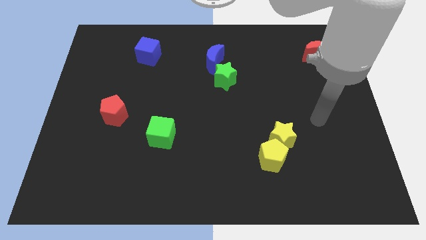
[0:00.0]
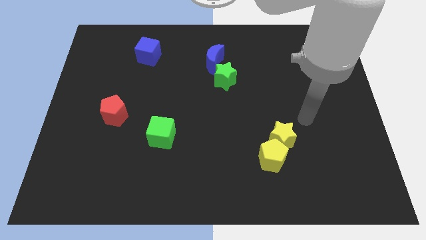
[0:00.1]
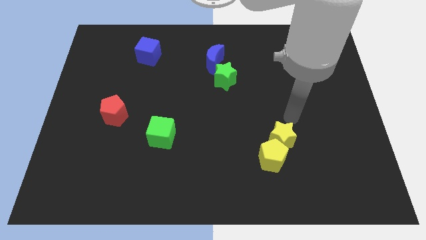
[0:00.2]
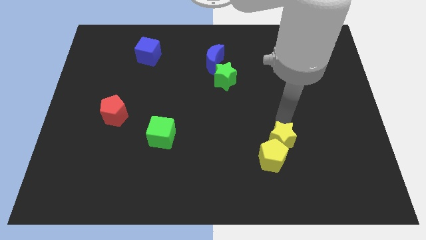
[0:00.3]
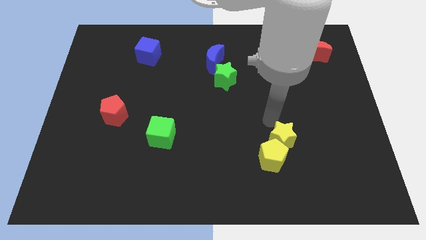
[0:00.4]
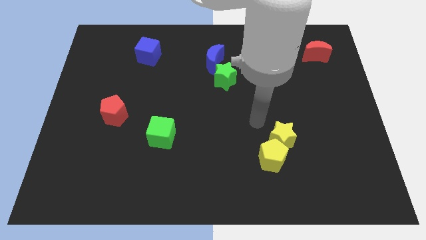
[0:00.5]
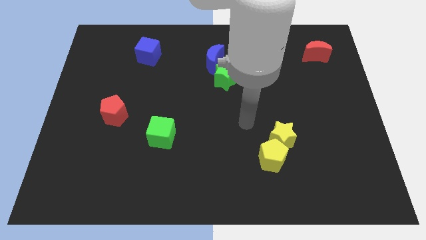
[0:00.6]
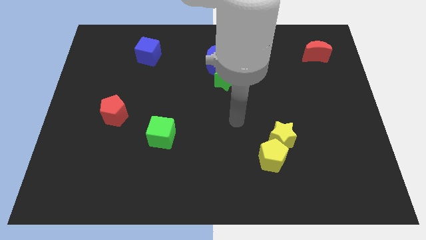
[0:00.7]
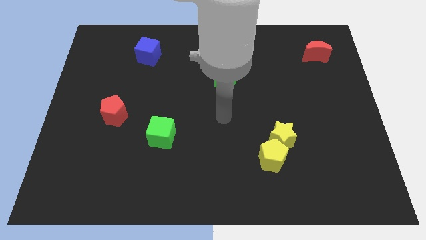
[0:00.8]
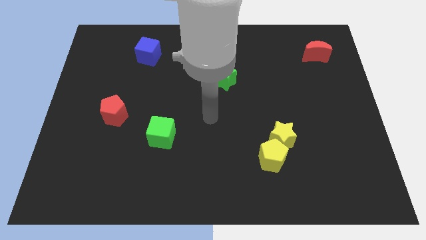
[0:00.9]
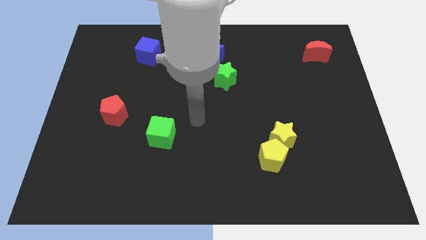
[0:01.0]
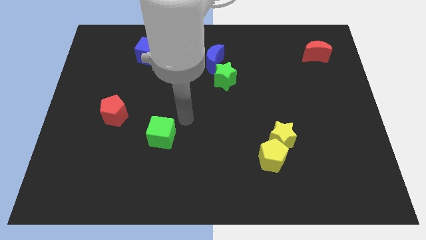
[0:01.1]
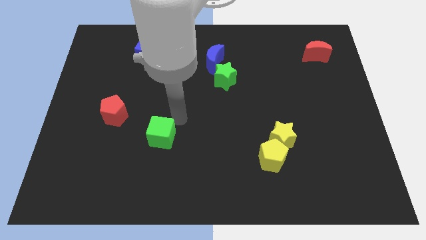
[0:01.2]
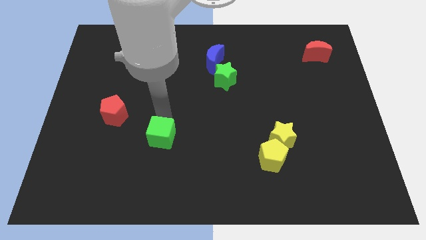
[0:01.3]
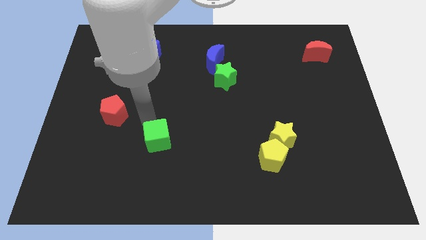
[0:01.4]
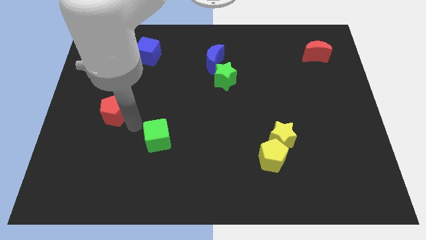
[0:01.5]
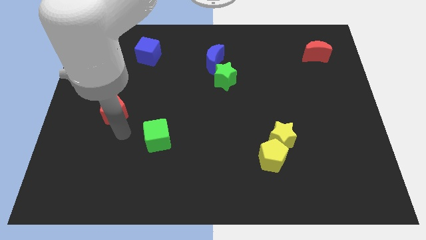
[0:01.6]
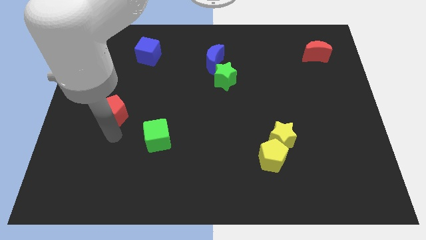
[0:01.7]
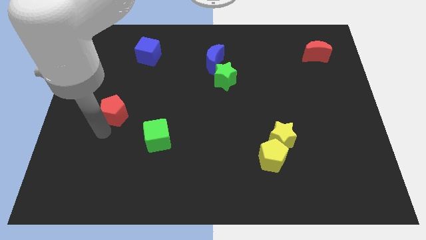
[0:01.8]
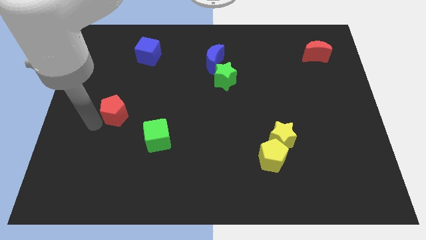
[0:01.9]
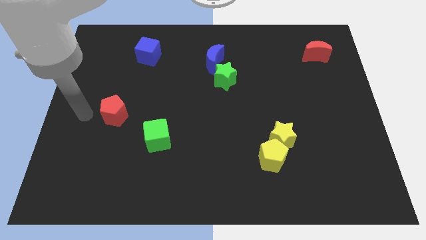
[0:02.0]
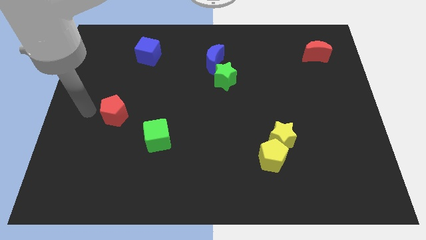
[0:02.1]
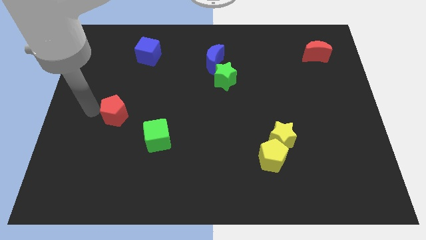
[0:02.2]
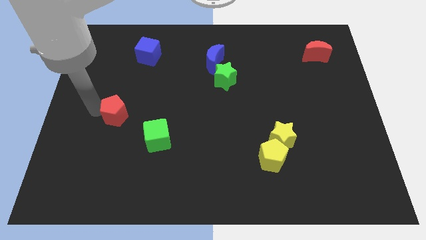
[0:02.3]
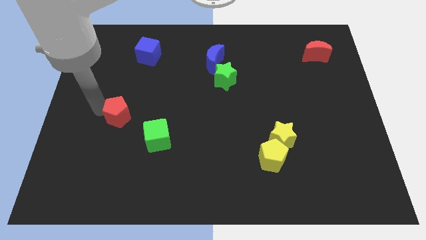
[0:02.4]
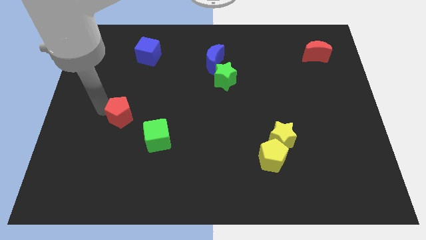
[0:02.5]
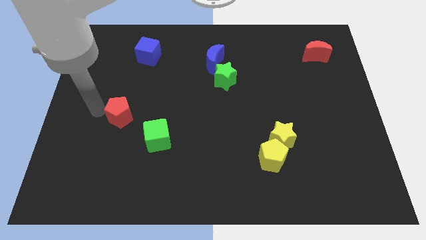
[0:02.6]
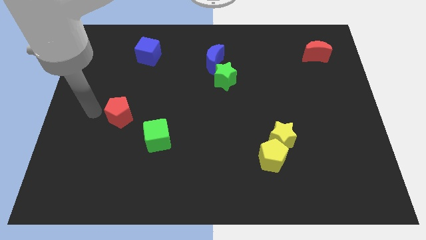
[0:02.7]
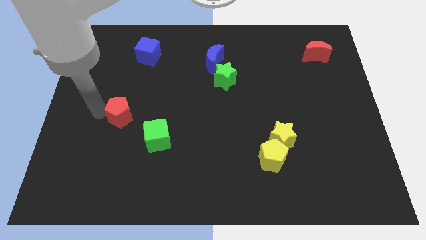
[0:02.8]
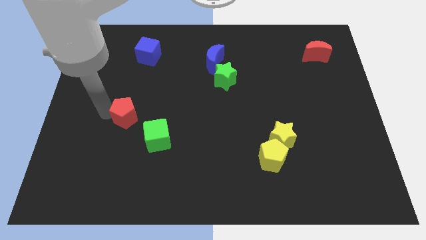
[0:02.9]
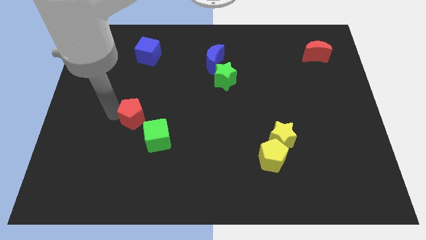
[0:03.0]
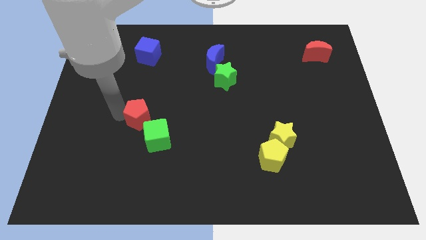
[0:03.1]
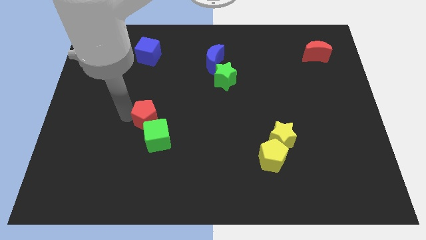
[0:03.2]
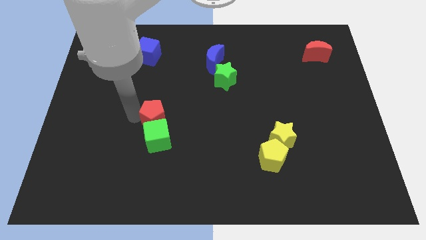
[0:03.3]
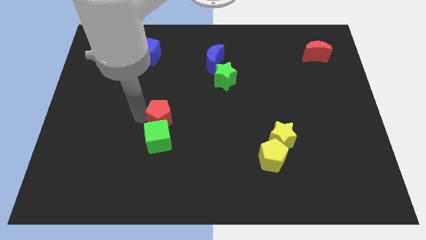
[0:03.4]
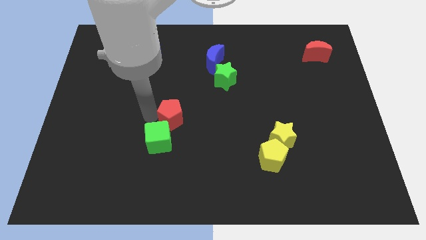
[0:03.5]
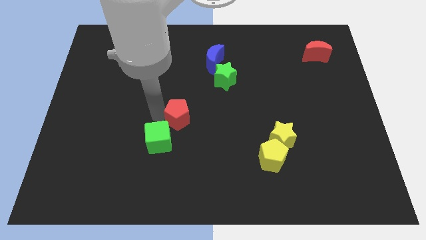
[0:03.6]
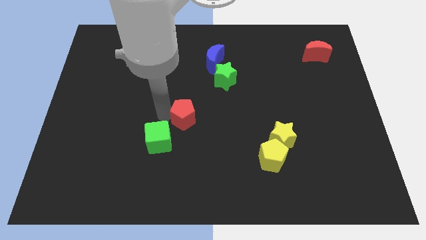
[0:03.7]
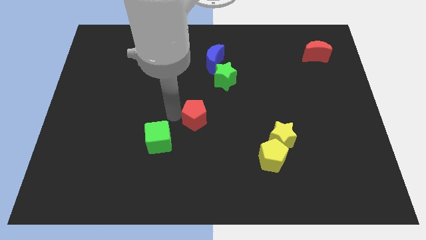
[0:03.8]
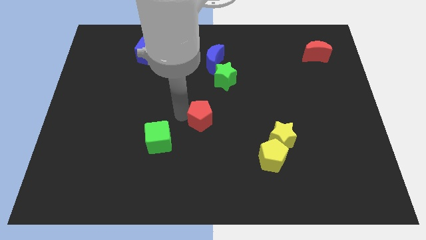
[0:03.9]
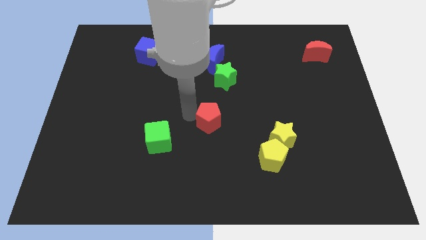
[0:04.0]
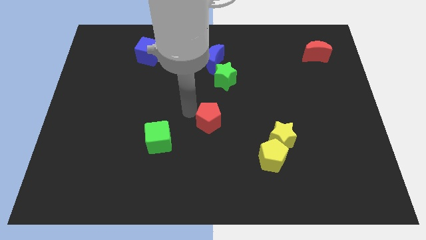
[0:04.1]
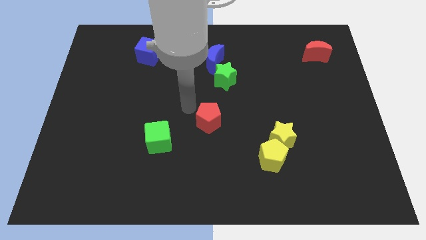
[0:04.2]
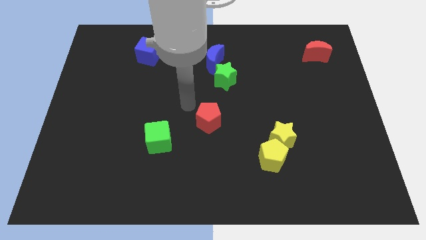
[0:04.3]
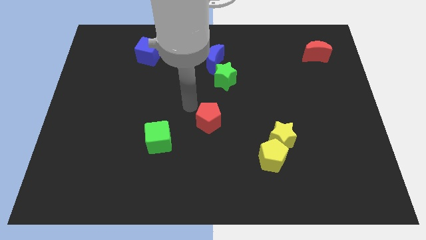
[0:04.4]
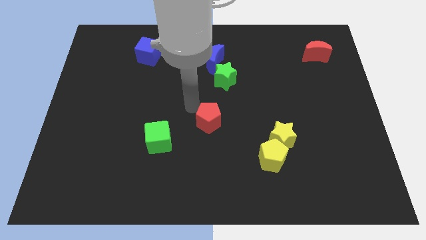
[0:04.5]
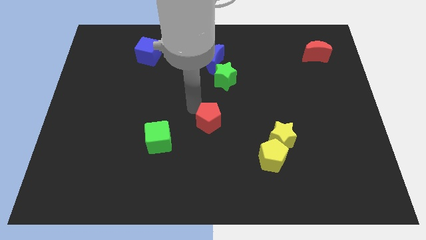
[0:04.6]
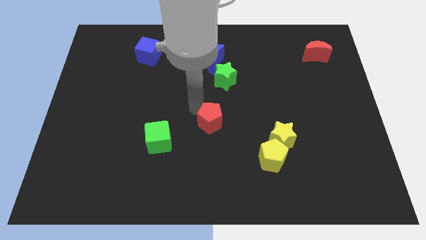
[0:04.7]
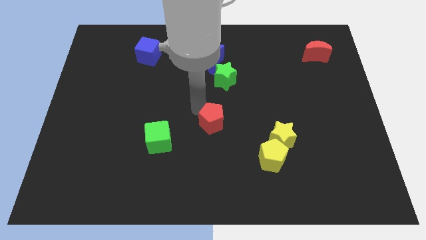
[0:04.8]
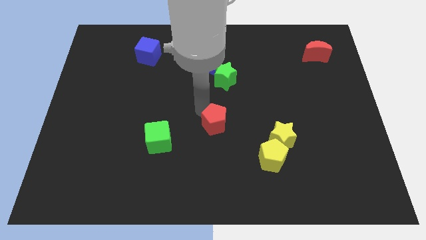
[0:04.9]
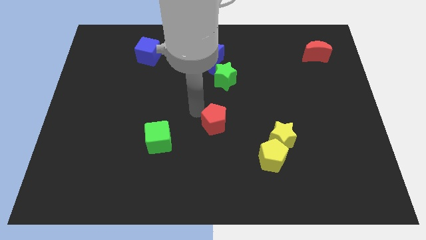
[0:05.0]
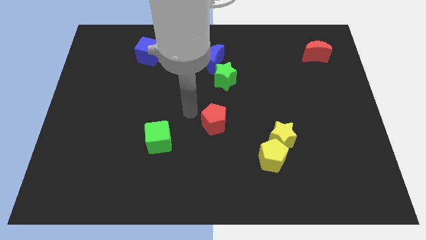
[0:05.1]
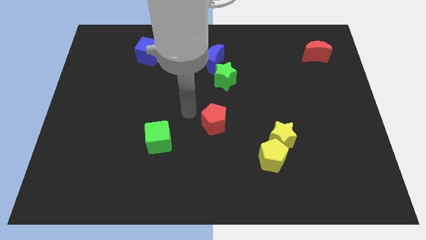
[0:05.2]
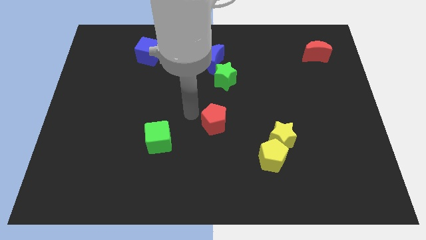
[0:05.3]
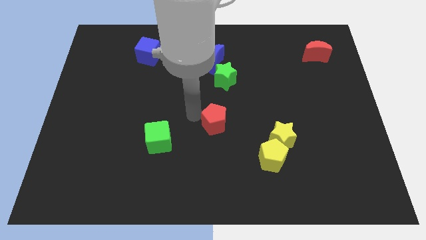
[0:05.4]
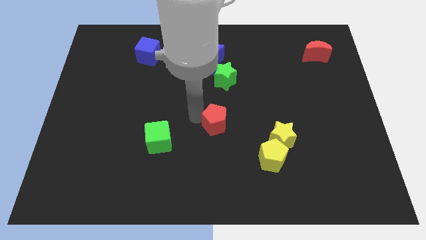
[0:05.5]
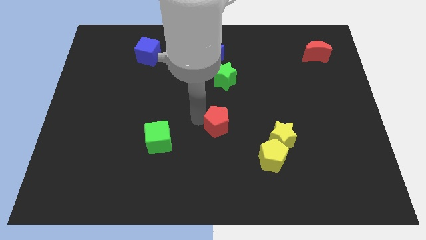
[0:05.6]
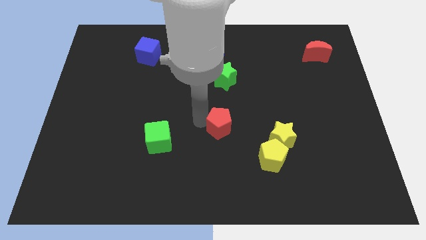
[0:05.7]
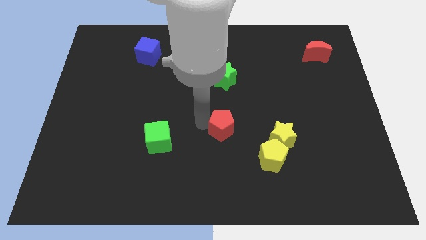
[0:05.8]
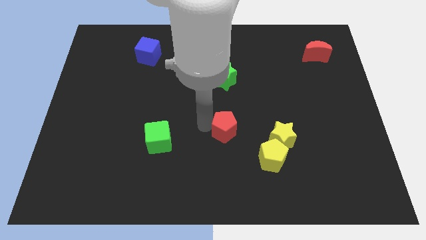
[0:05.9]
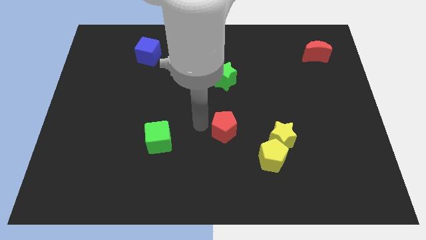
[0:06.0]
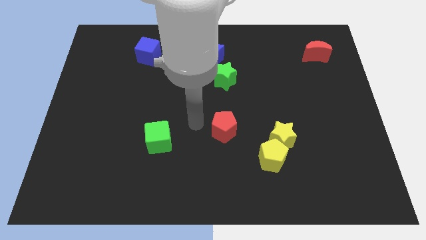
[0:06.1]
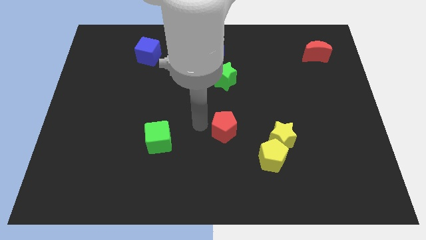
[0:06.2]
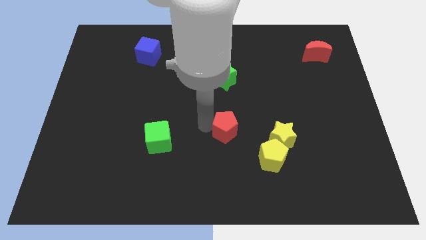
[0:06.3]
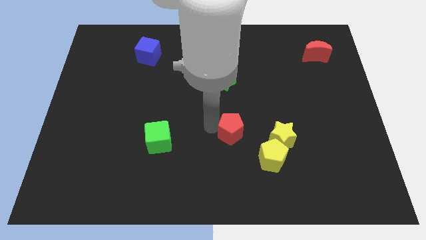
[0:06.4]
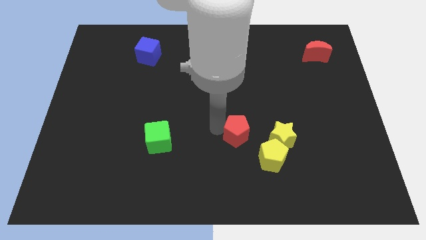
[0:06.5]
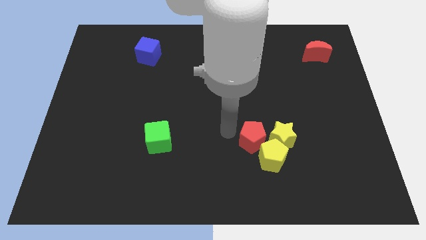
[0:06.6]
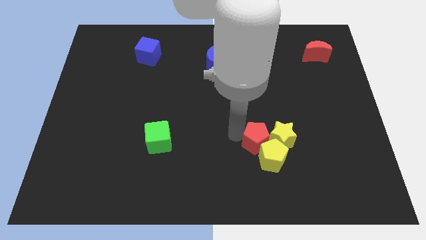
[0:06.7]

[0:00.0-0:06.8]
slide the red pentagon to the yellow star
